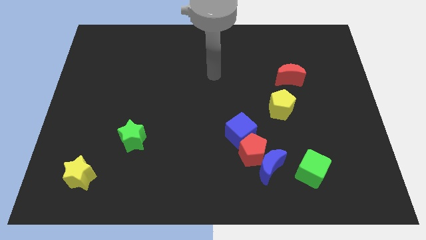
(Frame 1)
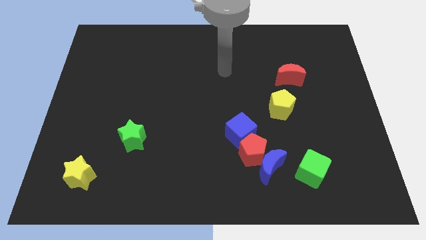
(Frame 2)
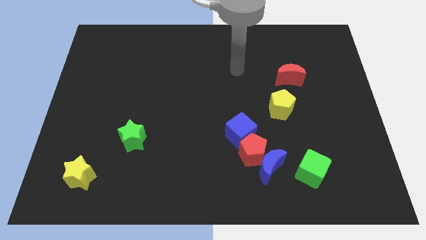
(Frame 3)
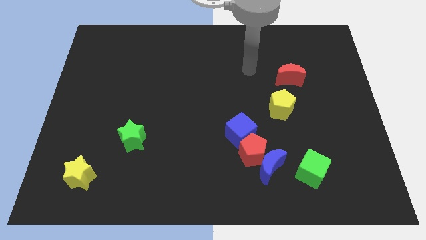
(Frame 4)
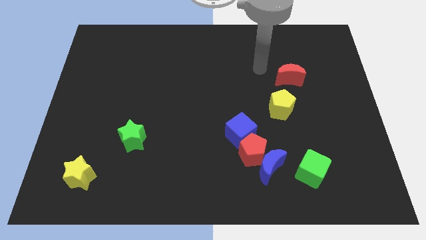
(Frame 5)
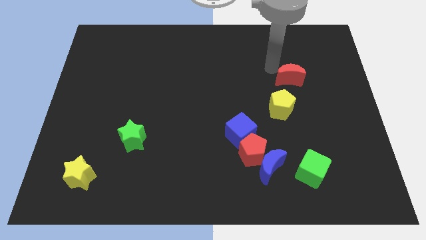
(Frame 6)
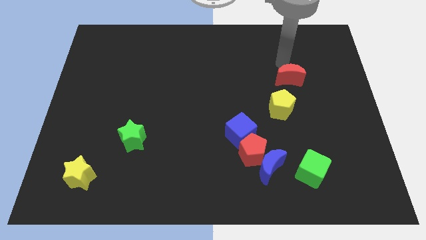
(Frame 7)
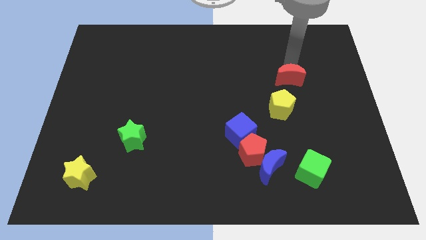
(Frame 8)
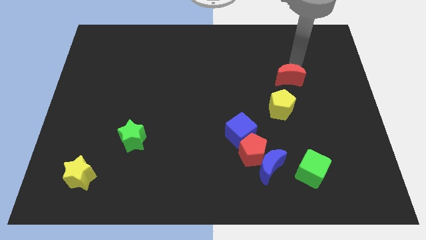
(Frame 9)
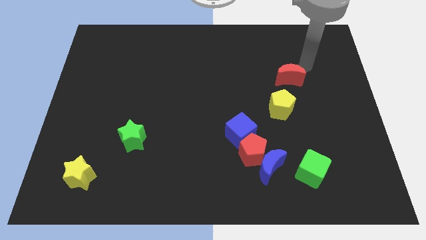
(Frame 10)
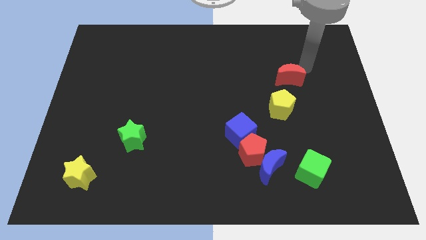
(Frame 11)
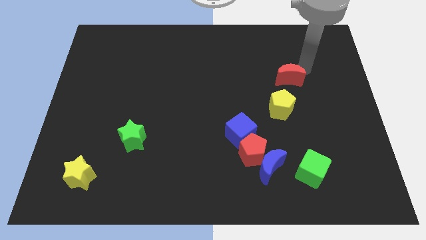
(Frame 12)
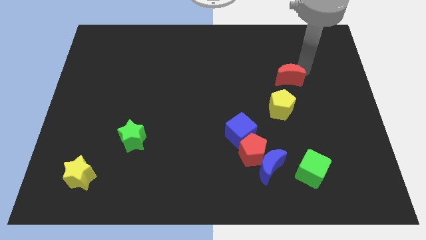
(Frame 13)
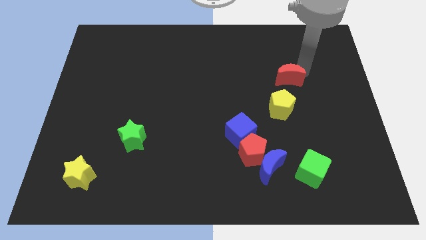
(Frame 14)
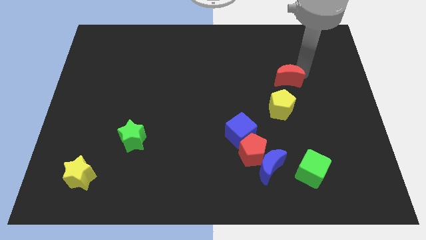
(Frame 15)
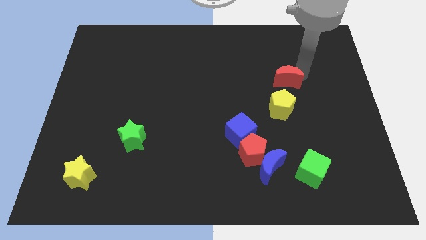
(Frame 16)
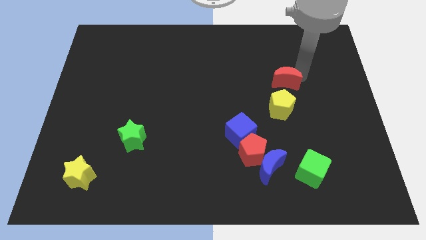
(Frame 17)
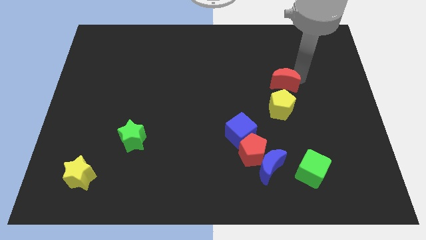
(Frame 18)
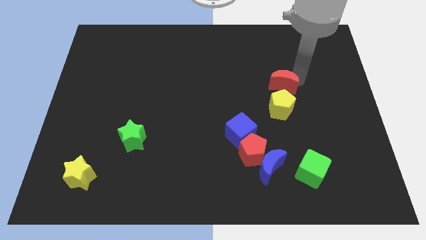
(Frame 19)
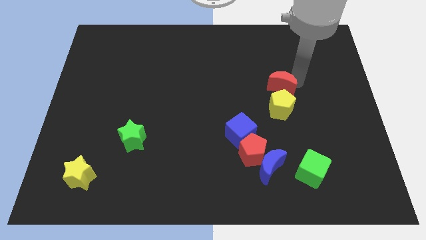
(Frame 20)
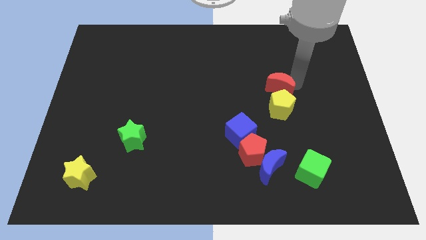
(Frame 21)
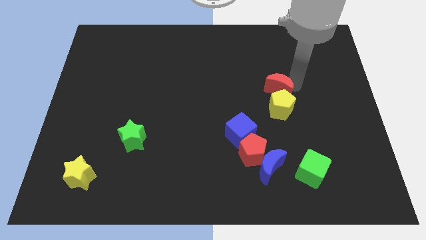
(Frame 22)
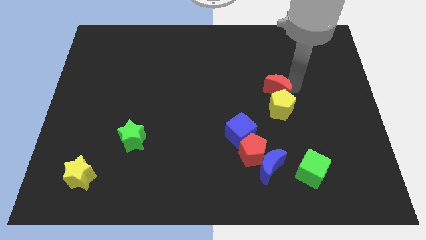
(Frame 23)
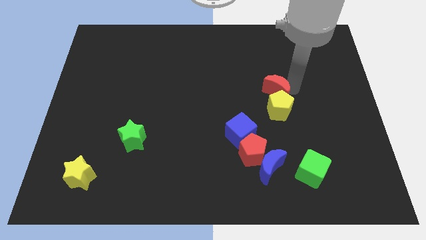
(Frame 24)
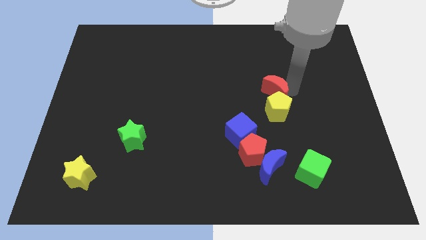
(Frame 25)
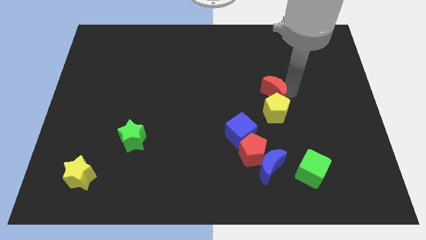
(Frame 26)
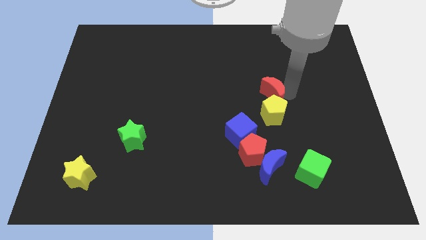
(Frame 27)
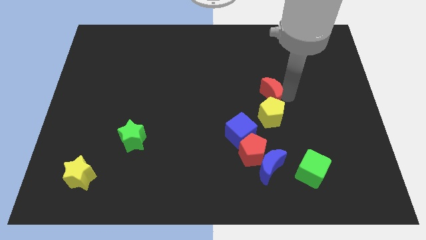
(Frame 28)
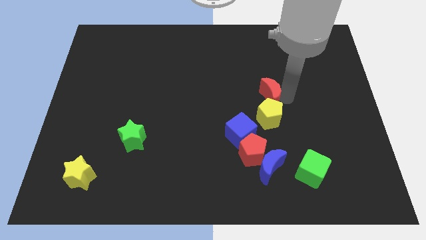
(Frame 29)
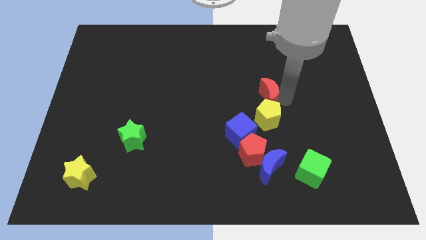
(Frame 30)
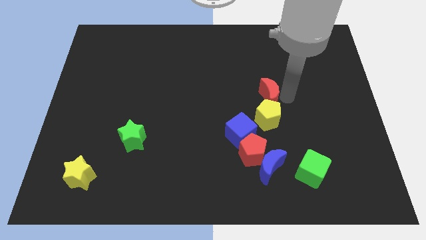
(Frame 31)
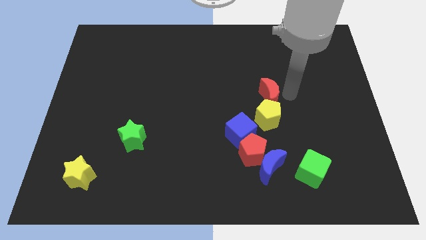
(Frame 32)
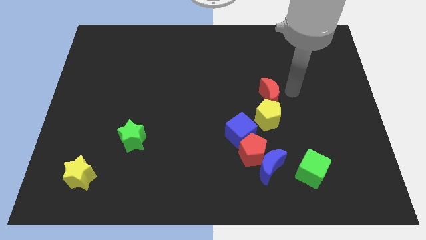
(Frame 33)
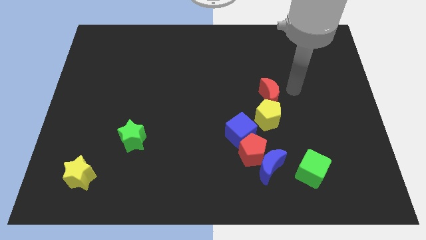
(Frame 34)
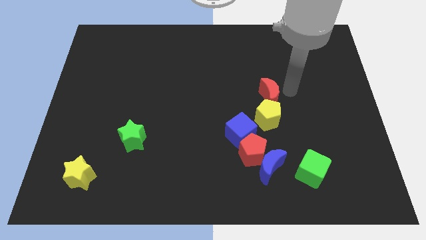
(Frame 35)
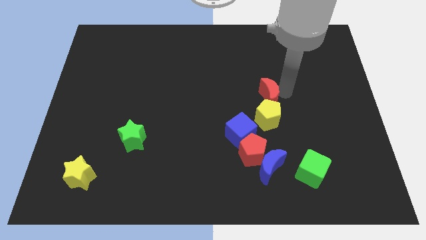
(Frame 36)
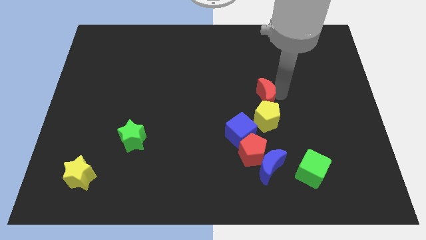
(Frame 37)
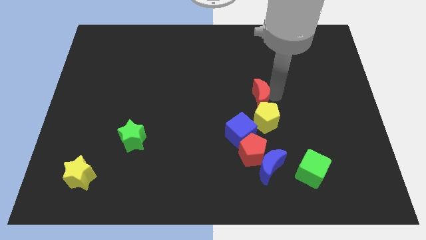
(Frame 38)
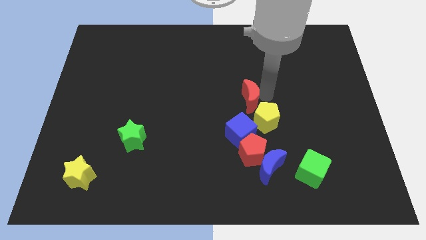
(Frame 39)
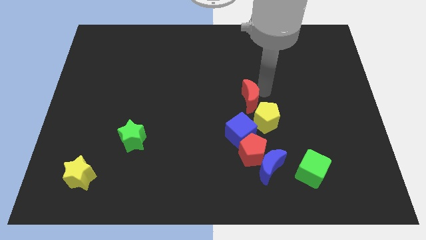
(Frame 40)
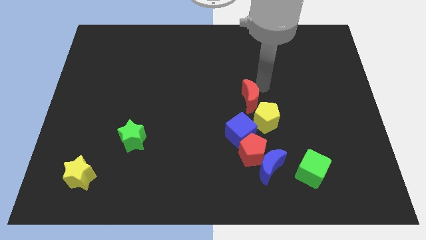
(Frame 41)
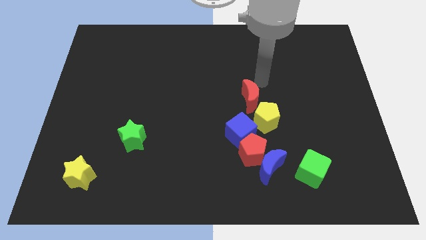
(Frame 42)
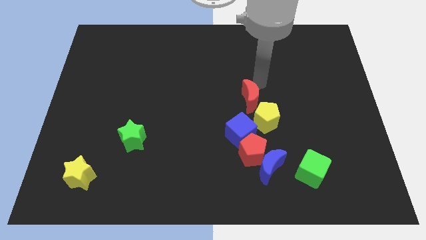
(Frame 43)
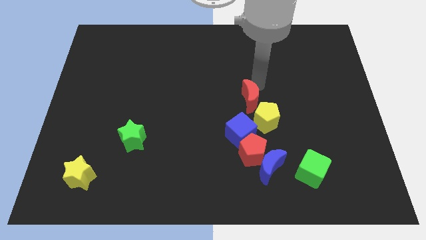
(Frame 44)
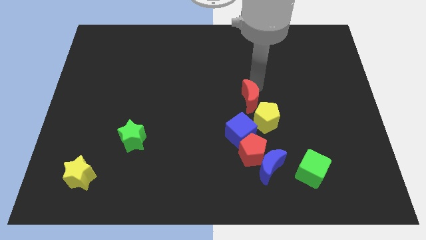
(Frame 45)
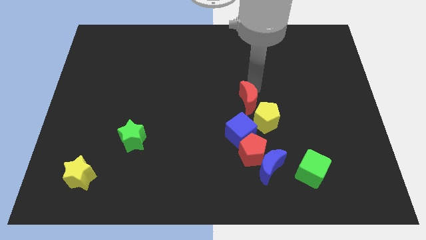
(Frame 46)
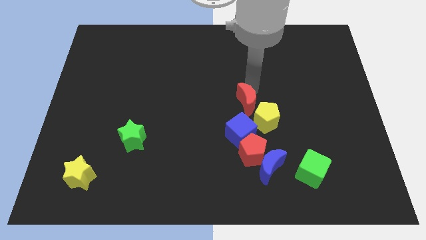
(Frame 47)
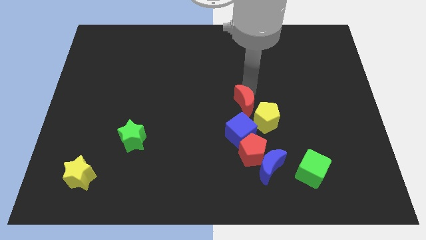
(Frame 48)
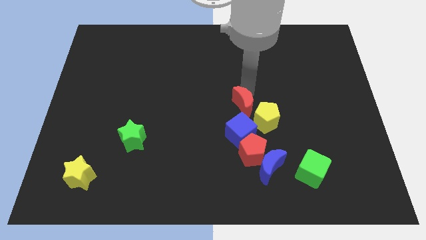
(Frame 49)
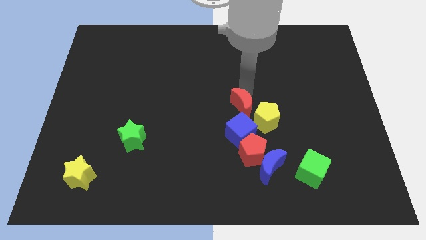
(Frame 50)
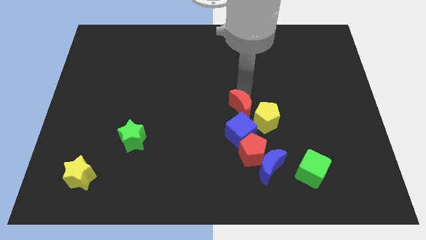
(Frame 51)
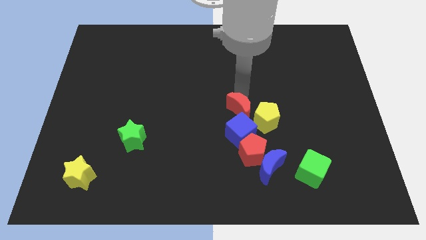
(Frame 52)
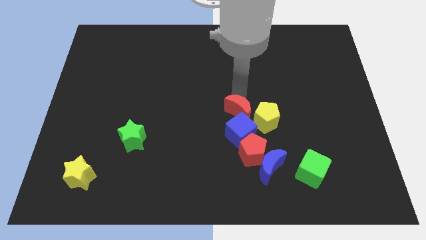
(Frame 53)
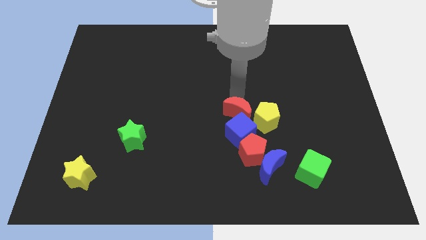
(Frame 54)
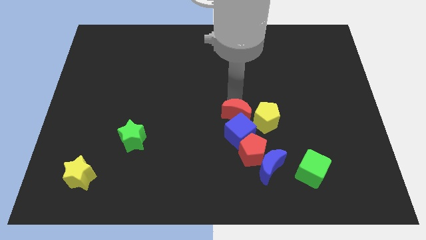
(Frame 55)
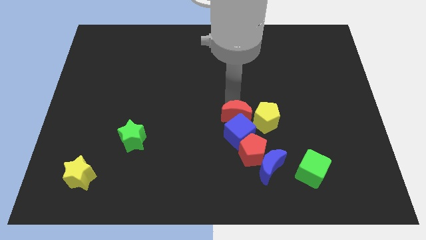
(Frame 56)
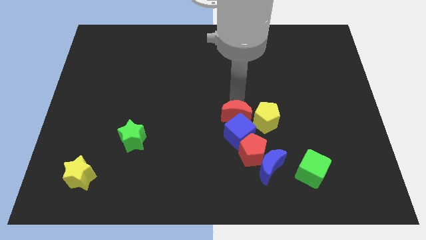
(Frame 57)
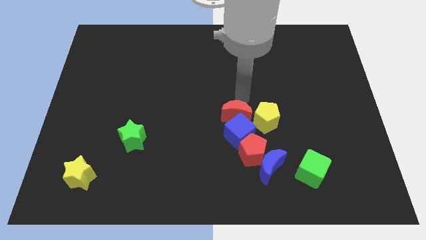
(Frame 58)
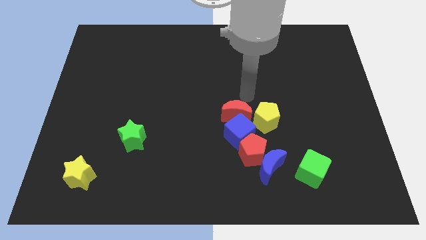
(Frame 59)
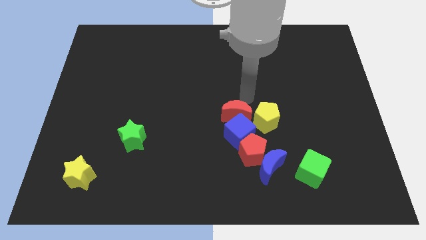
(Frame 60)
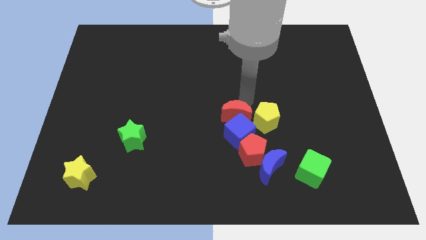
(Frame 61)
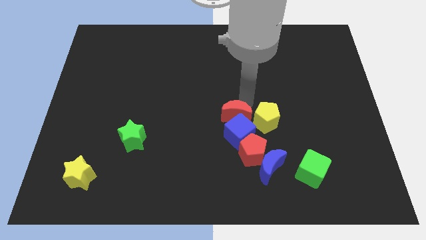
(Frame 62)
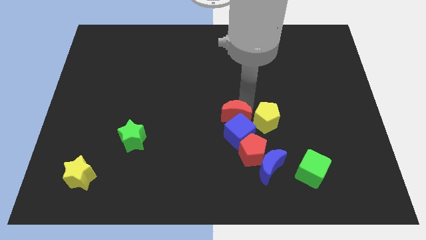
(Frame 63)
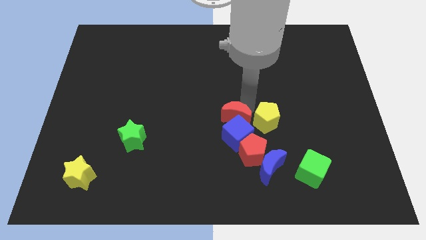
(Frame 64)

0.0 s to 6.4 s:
slide the red moon to the top left side of the red pentagon
